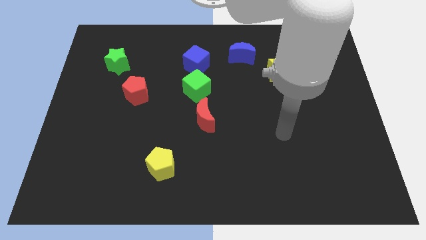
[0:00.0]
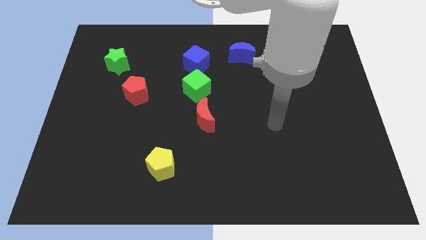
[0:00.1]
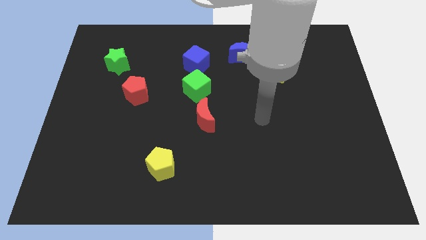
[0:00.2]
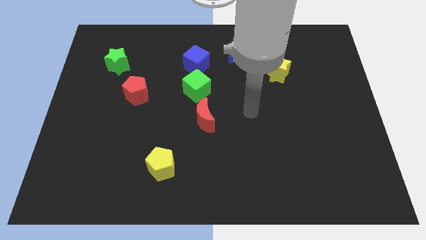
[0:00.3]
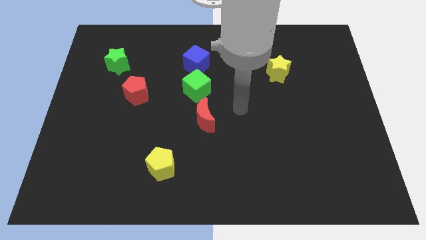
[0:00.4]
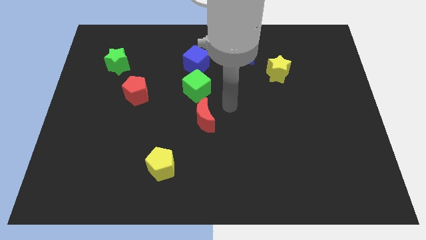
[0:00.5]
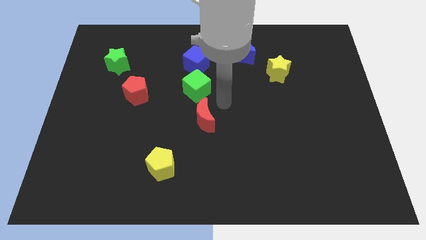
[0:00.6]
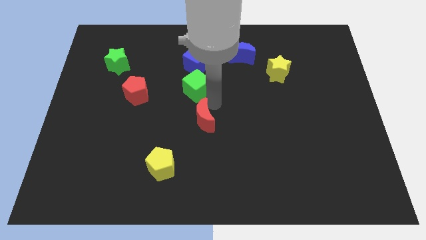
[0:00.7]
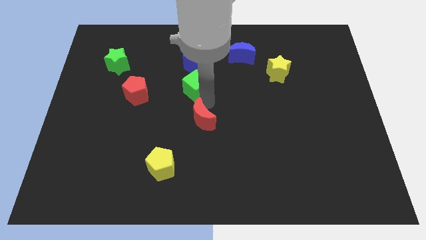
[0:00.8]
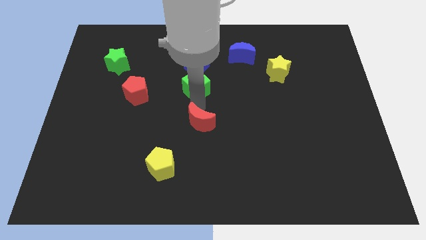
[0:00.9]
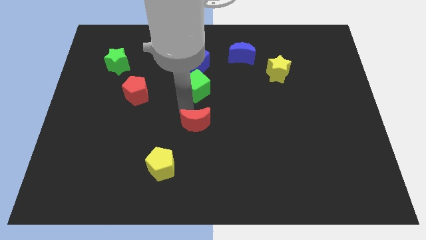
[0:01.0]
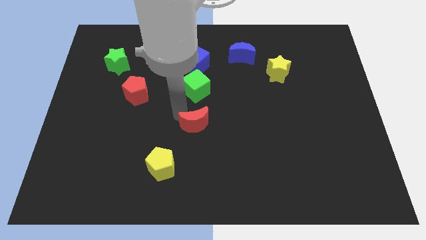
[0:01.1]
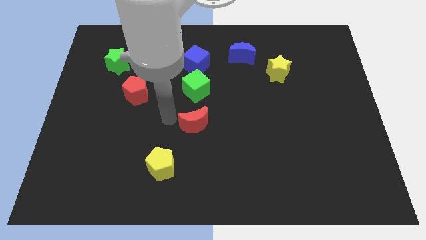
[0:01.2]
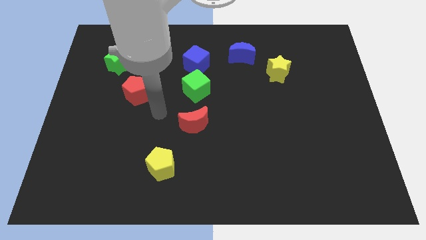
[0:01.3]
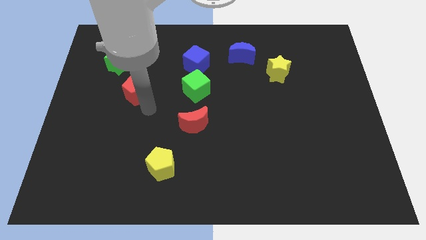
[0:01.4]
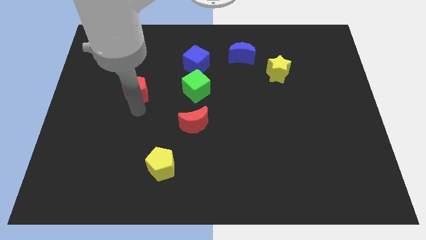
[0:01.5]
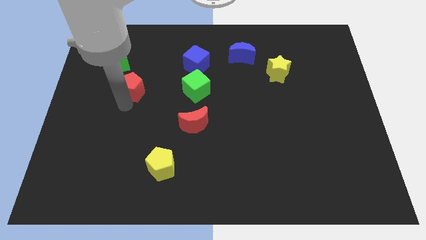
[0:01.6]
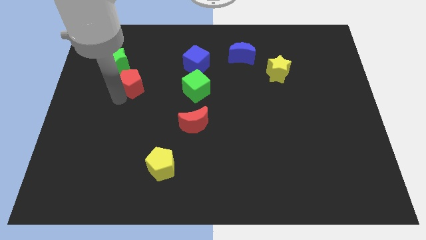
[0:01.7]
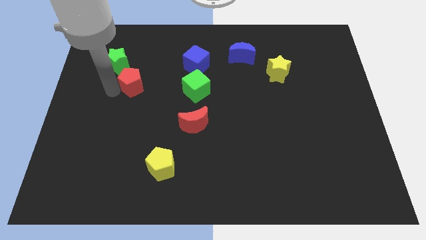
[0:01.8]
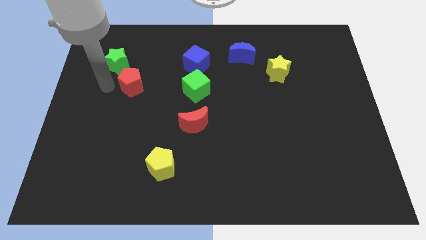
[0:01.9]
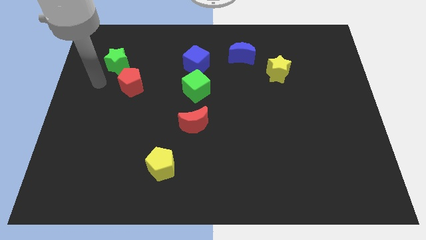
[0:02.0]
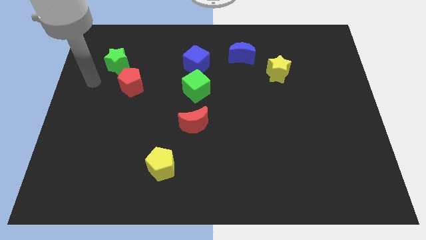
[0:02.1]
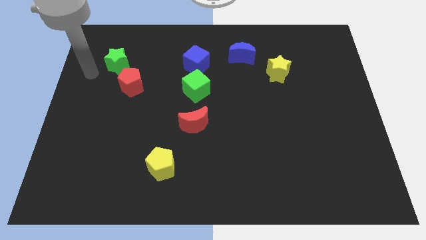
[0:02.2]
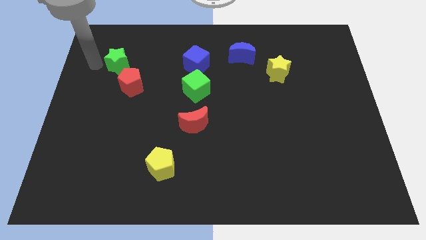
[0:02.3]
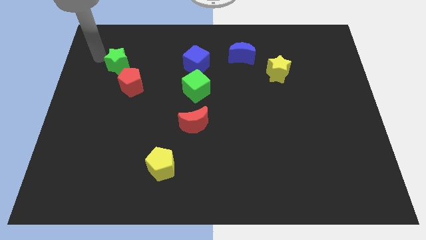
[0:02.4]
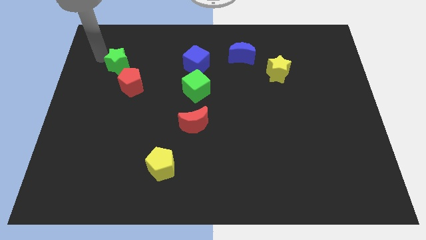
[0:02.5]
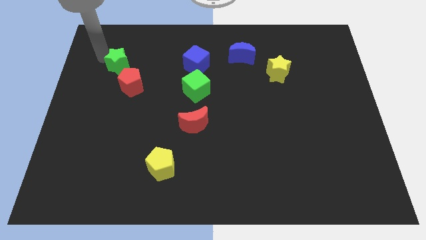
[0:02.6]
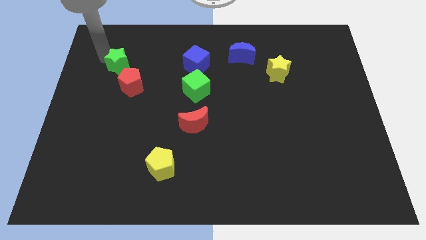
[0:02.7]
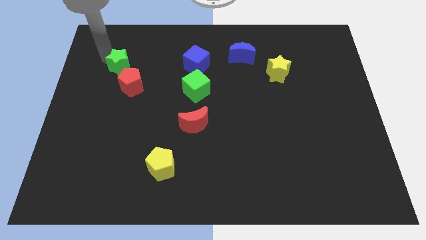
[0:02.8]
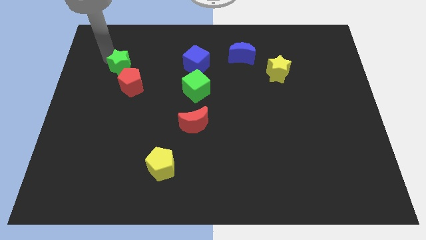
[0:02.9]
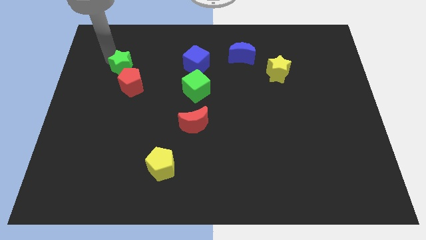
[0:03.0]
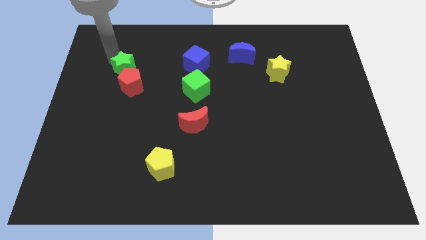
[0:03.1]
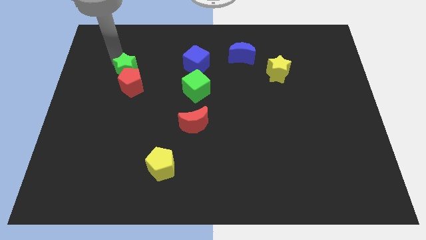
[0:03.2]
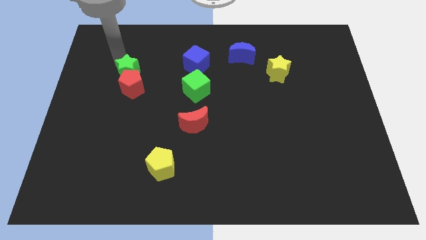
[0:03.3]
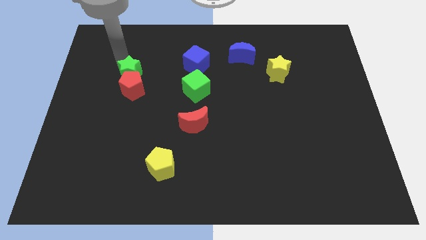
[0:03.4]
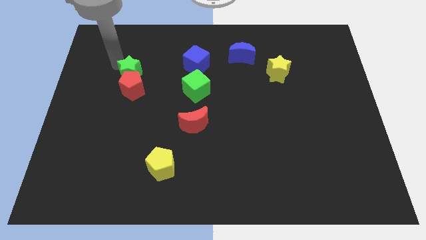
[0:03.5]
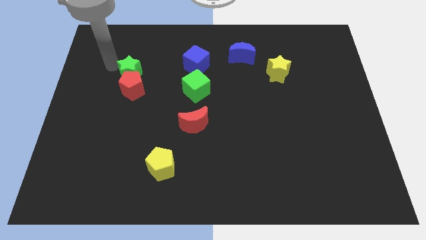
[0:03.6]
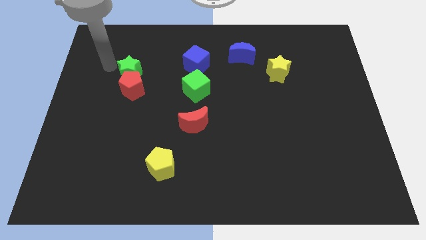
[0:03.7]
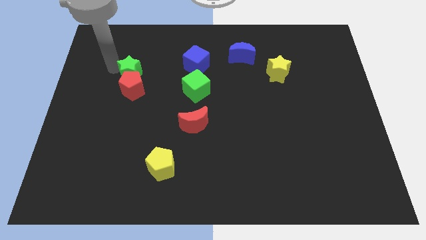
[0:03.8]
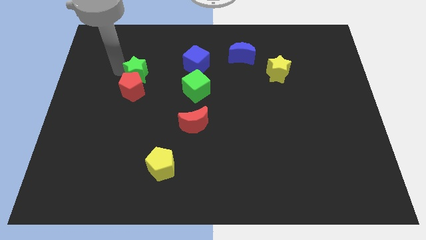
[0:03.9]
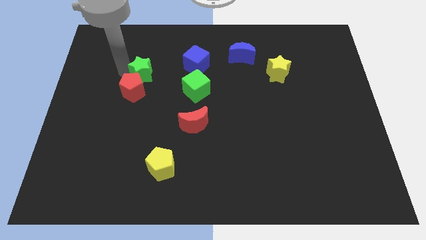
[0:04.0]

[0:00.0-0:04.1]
move the green star a bit downwards and right

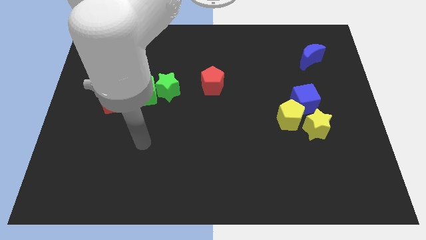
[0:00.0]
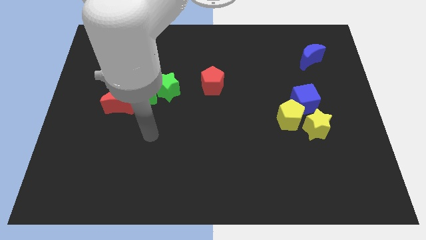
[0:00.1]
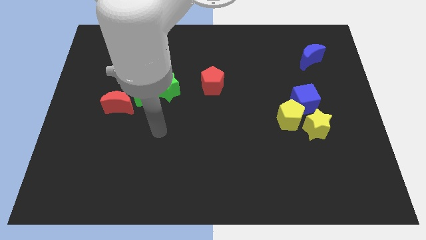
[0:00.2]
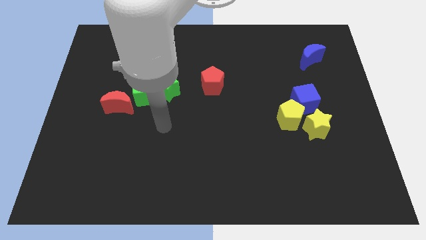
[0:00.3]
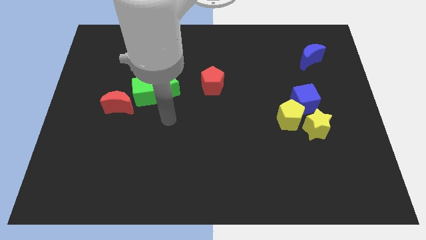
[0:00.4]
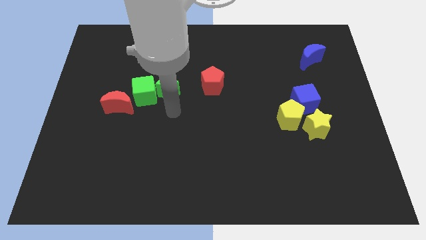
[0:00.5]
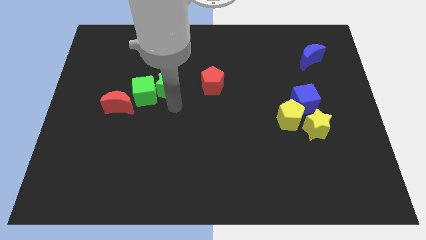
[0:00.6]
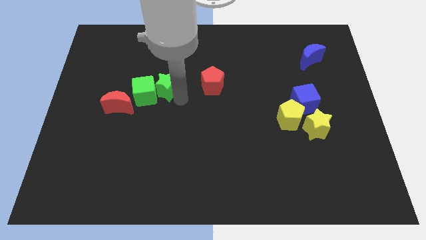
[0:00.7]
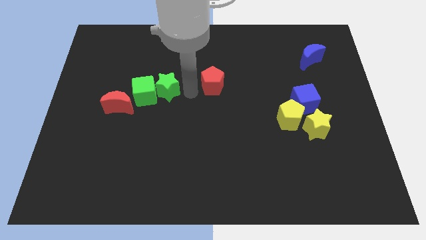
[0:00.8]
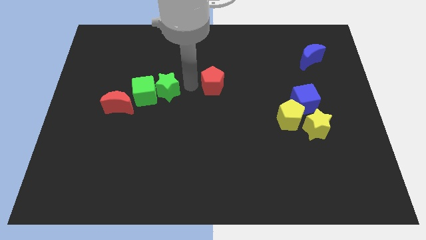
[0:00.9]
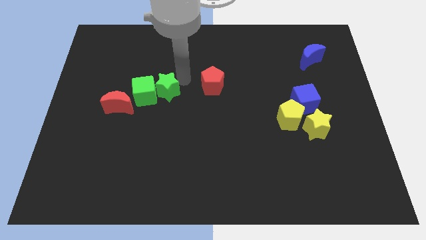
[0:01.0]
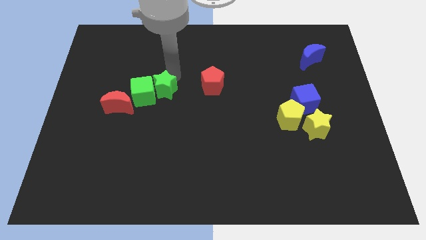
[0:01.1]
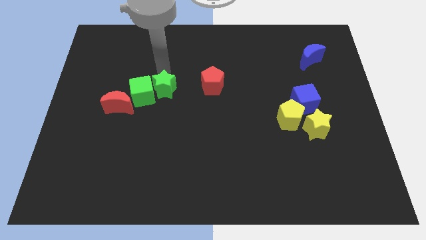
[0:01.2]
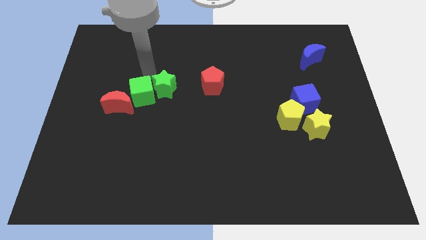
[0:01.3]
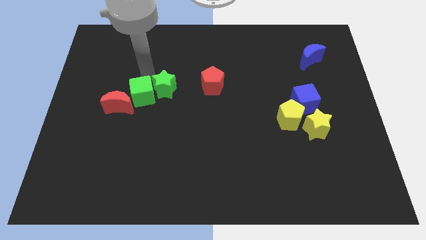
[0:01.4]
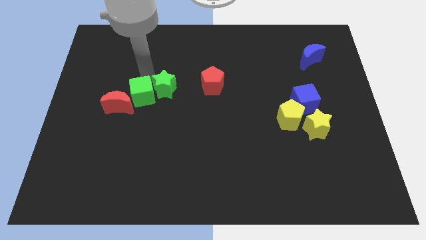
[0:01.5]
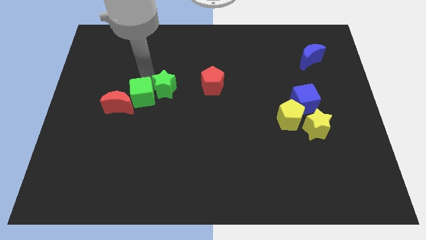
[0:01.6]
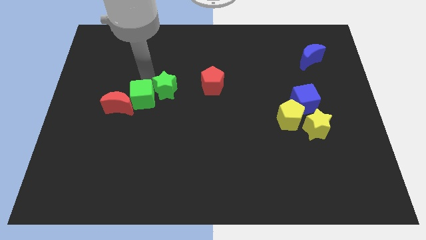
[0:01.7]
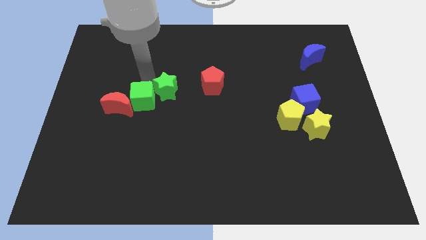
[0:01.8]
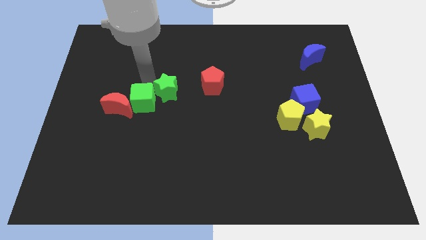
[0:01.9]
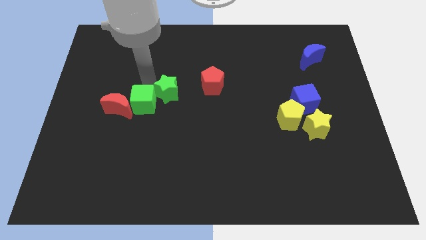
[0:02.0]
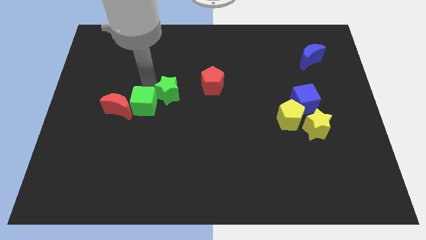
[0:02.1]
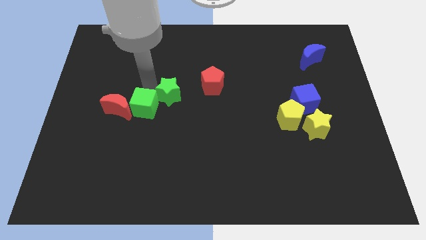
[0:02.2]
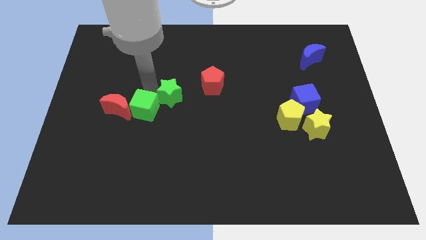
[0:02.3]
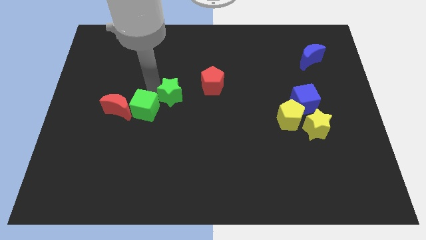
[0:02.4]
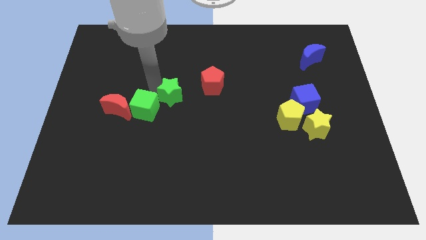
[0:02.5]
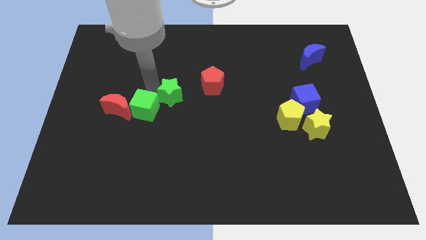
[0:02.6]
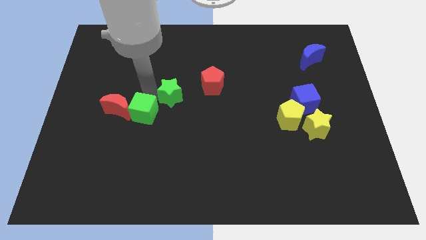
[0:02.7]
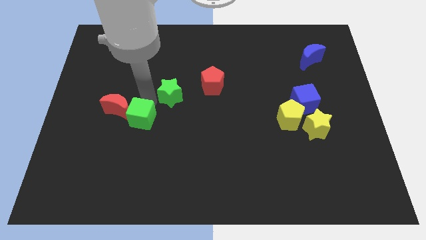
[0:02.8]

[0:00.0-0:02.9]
slightly slide the green cube down

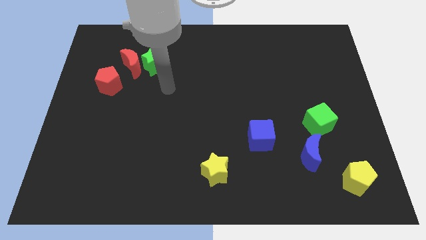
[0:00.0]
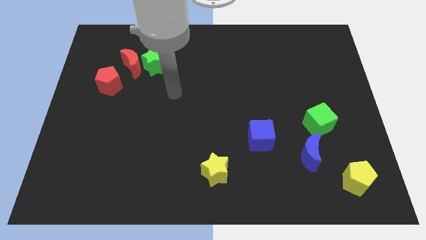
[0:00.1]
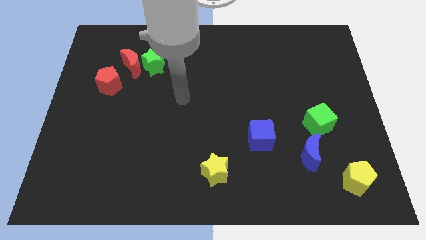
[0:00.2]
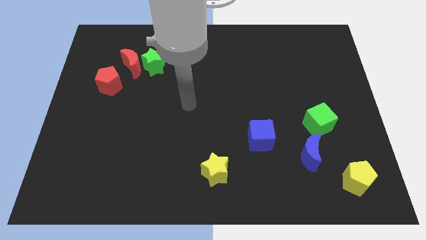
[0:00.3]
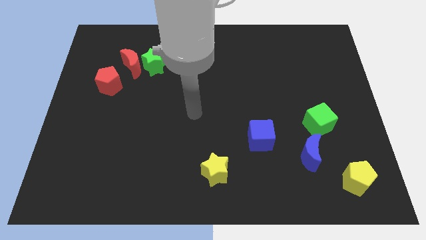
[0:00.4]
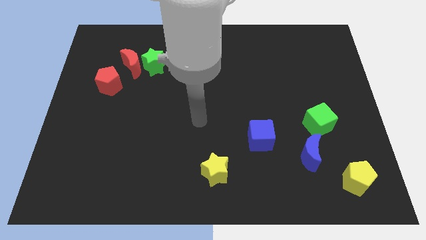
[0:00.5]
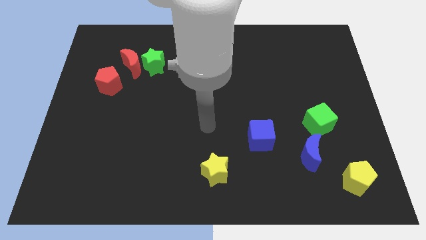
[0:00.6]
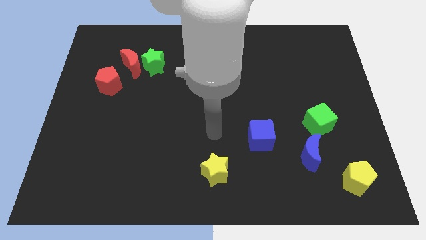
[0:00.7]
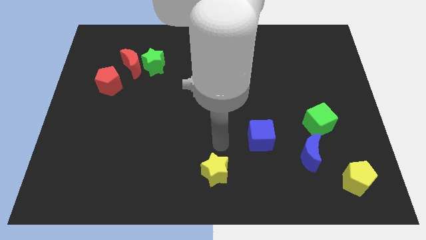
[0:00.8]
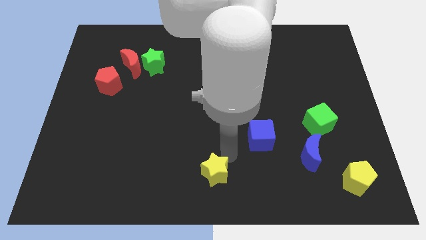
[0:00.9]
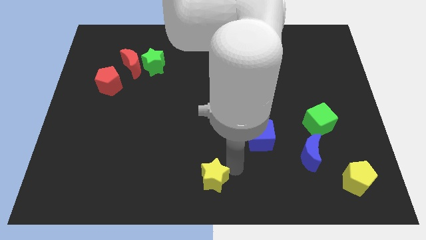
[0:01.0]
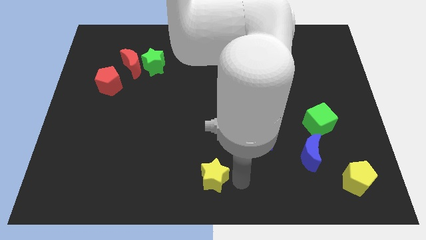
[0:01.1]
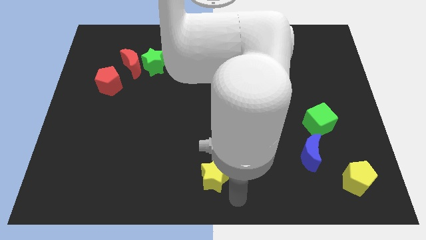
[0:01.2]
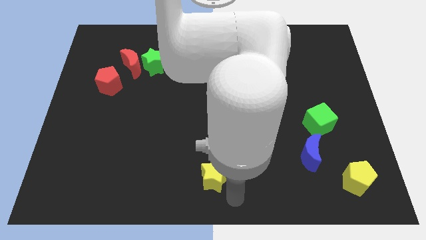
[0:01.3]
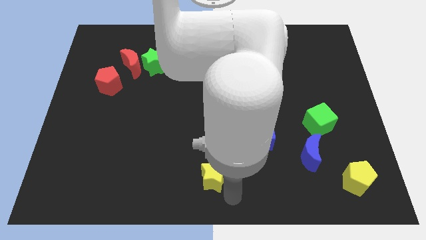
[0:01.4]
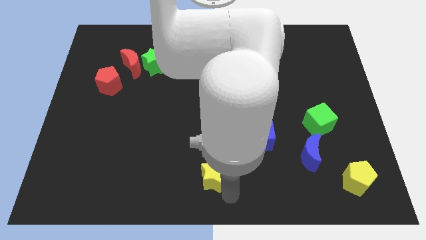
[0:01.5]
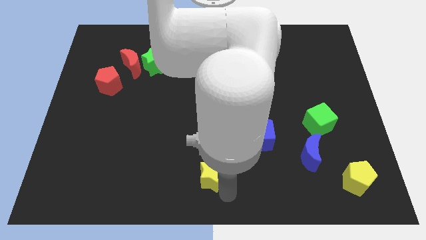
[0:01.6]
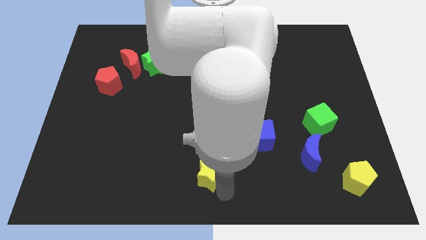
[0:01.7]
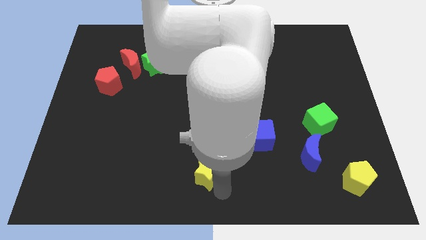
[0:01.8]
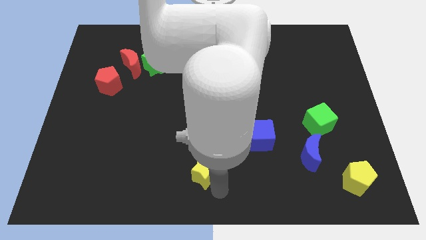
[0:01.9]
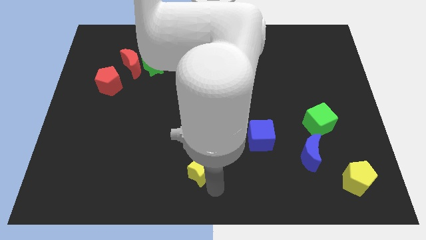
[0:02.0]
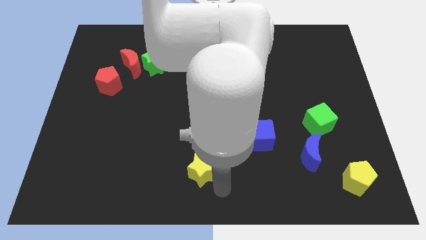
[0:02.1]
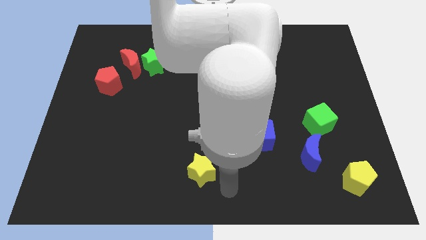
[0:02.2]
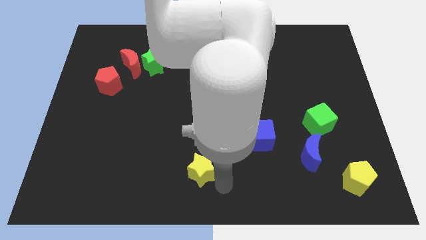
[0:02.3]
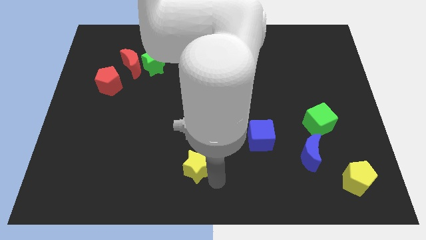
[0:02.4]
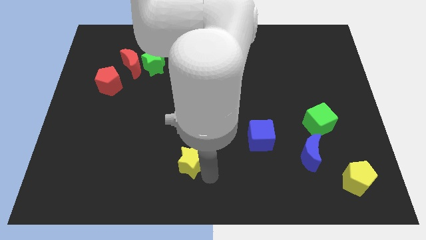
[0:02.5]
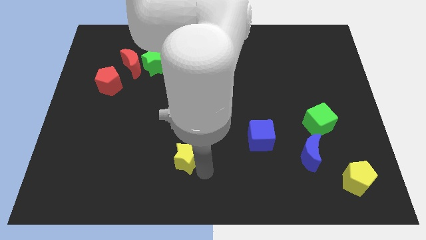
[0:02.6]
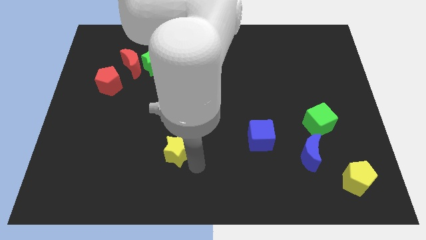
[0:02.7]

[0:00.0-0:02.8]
move the yellow star slightly upwards and left
